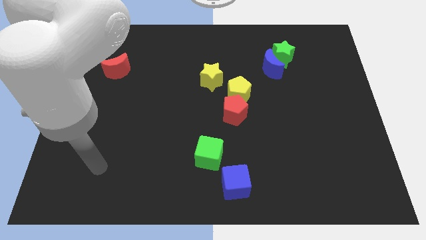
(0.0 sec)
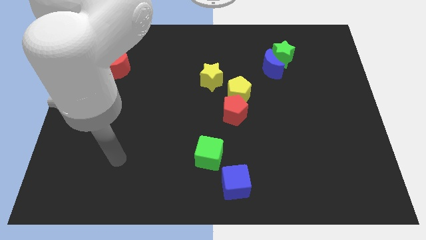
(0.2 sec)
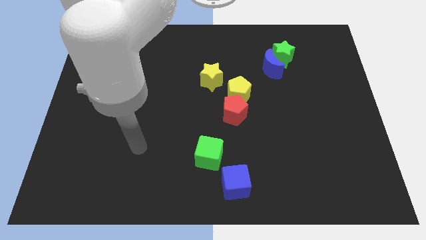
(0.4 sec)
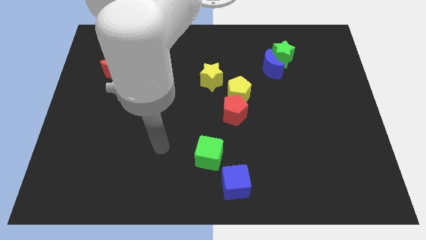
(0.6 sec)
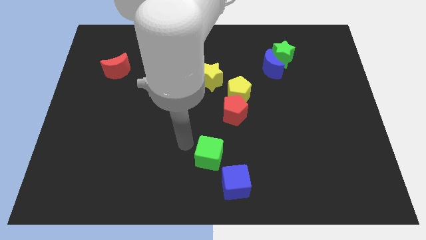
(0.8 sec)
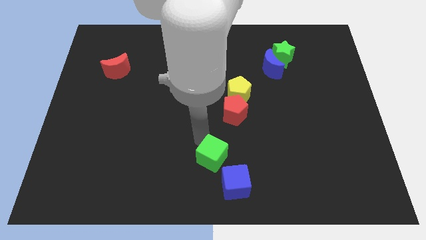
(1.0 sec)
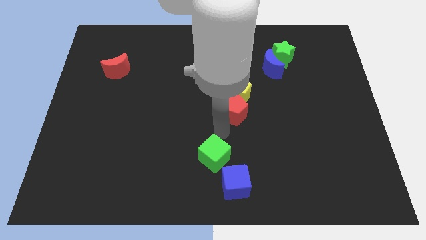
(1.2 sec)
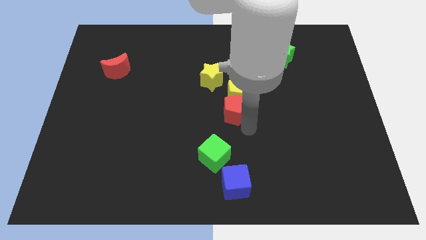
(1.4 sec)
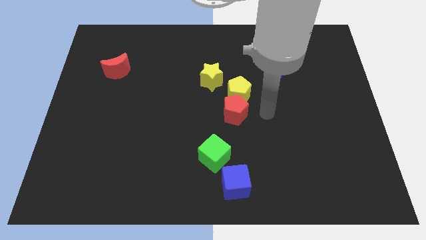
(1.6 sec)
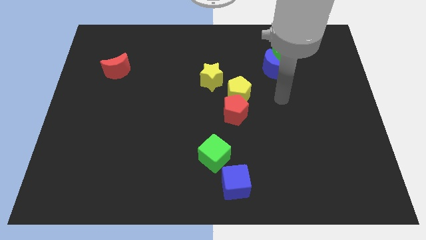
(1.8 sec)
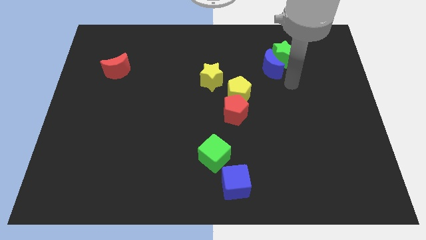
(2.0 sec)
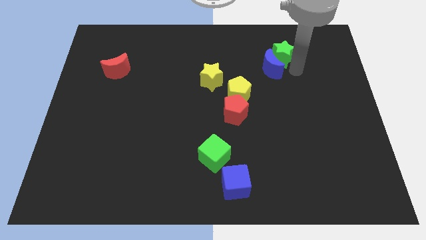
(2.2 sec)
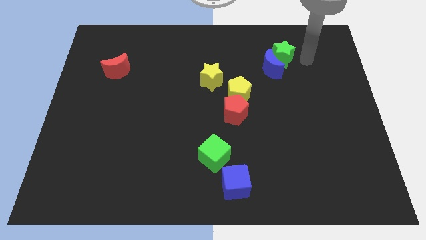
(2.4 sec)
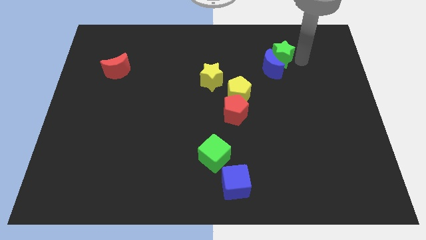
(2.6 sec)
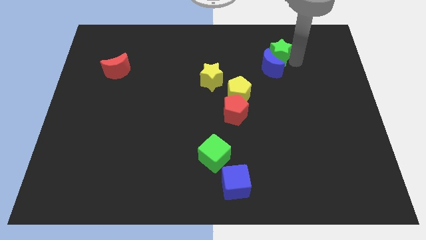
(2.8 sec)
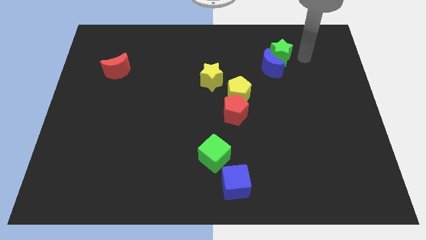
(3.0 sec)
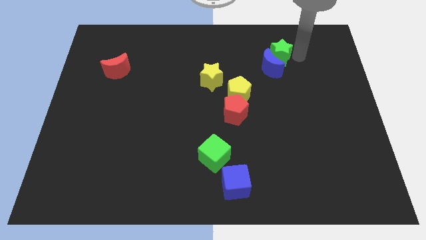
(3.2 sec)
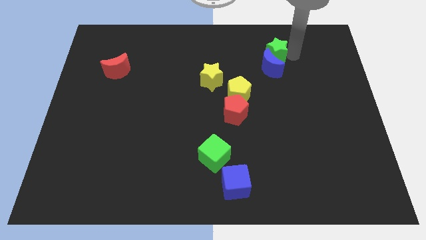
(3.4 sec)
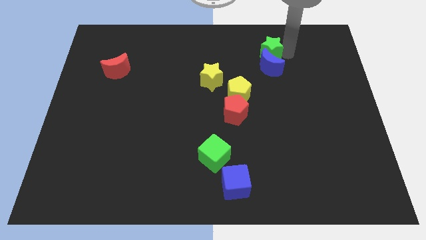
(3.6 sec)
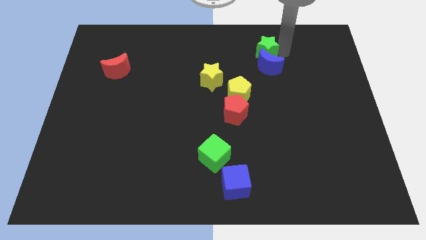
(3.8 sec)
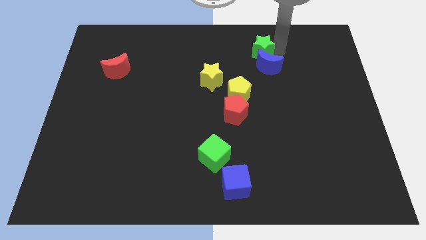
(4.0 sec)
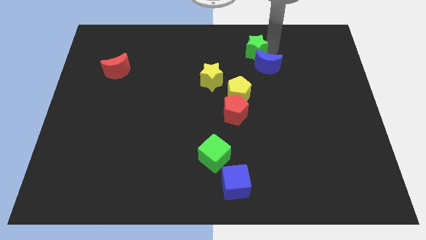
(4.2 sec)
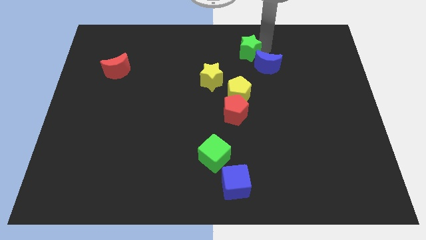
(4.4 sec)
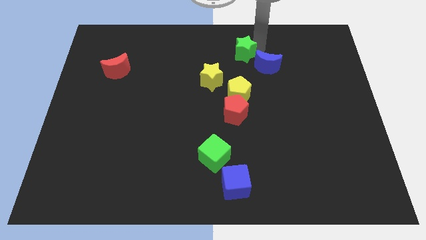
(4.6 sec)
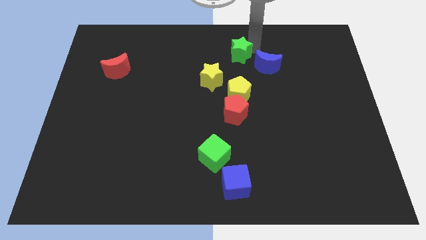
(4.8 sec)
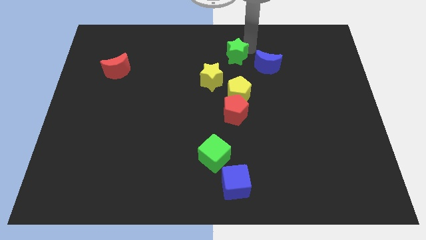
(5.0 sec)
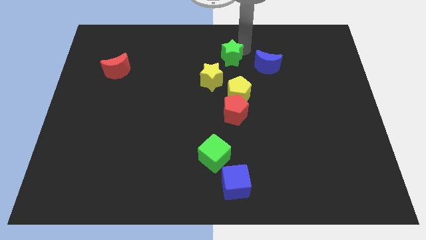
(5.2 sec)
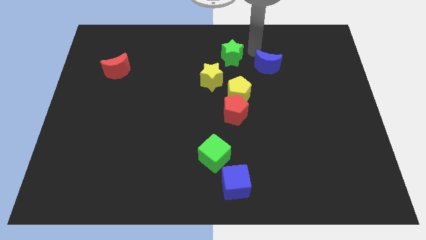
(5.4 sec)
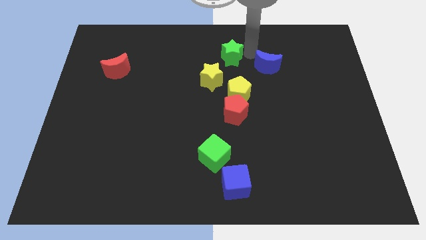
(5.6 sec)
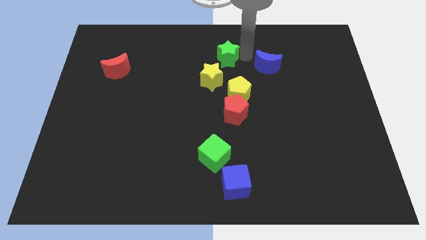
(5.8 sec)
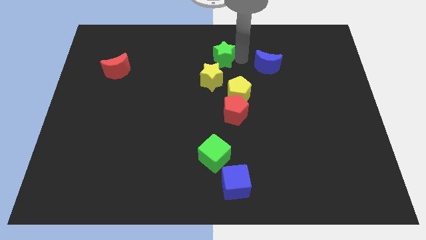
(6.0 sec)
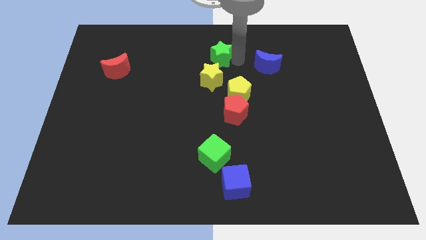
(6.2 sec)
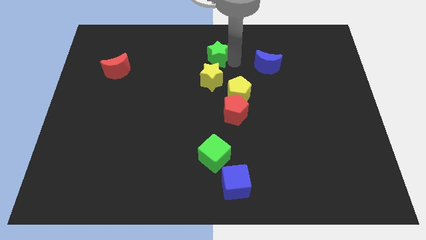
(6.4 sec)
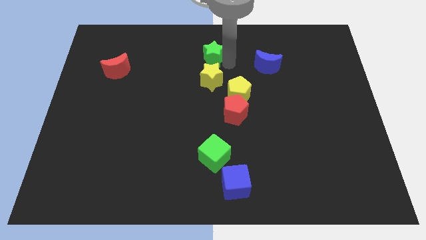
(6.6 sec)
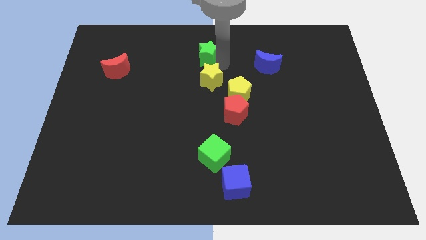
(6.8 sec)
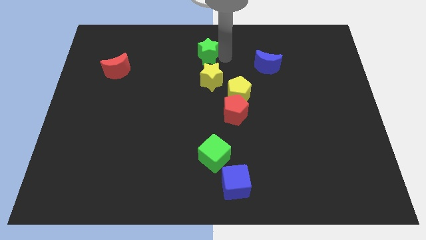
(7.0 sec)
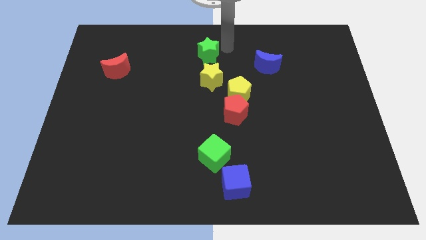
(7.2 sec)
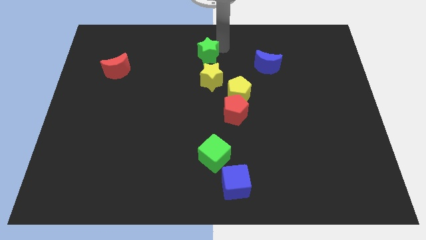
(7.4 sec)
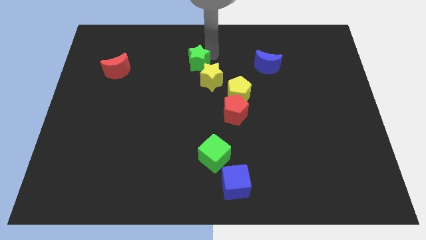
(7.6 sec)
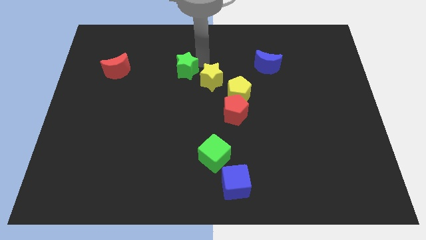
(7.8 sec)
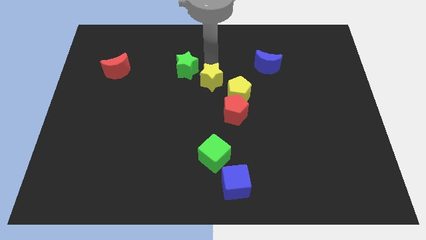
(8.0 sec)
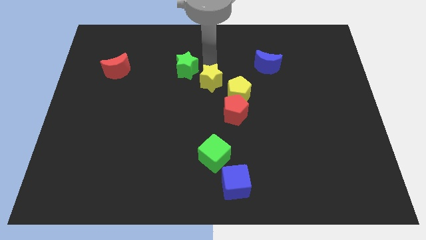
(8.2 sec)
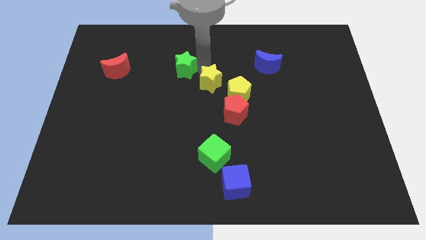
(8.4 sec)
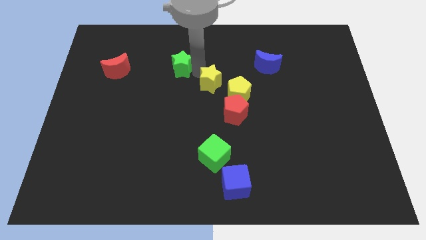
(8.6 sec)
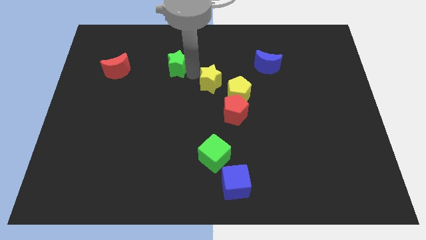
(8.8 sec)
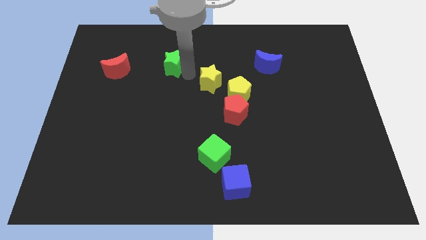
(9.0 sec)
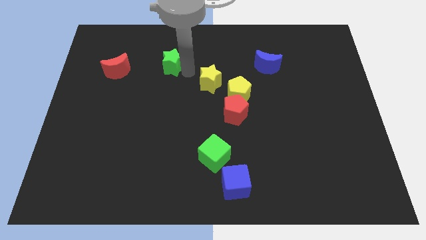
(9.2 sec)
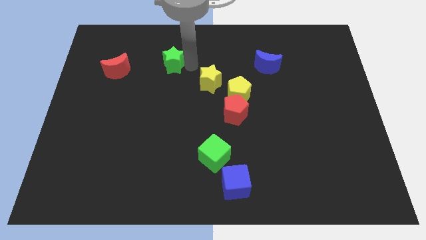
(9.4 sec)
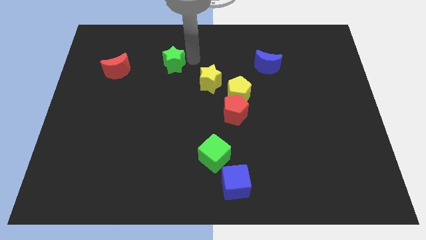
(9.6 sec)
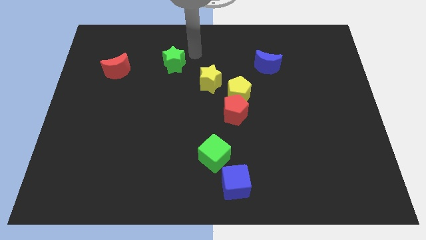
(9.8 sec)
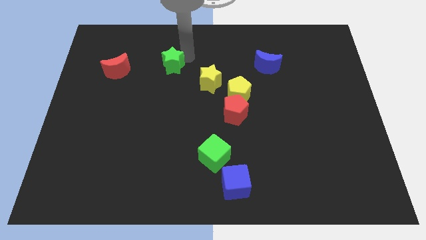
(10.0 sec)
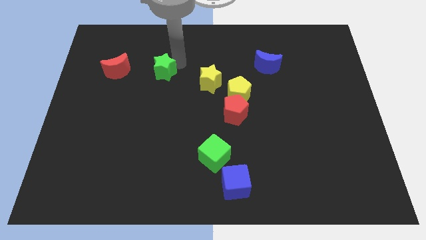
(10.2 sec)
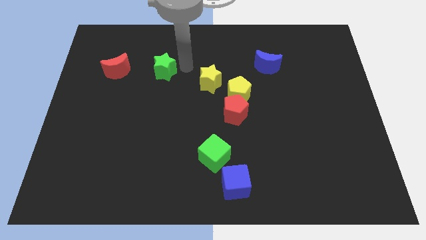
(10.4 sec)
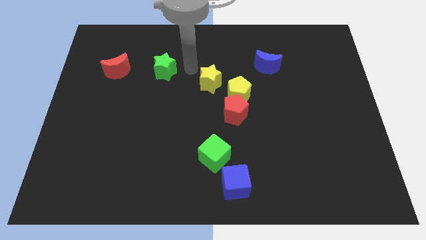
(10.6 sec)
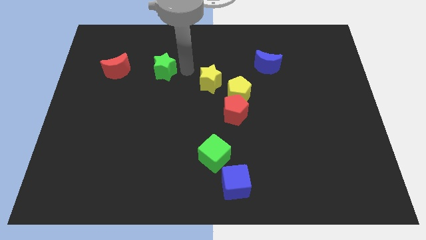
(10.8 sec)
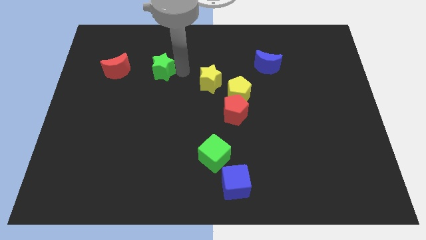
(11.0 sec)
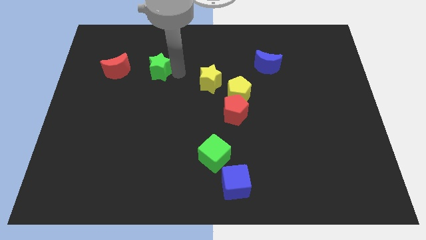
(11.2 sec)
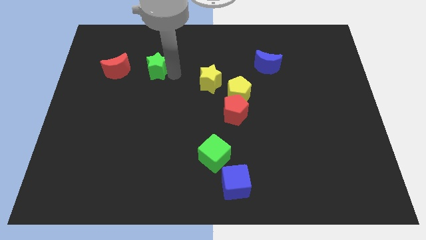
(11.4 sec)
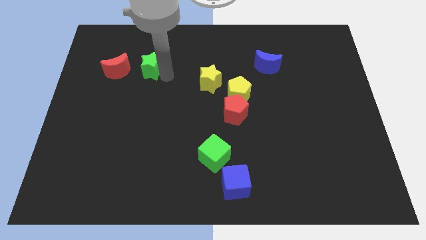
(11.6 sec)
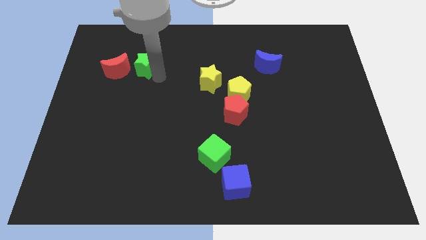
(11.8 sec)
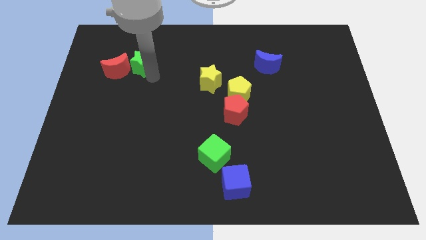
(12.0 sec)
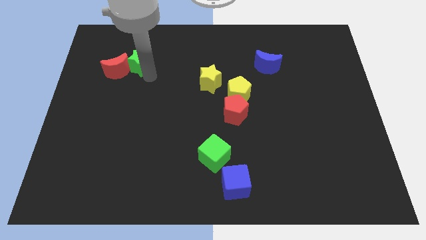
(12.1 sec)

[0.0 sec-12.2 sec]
put the green star close to the red moon

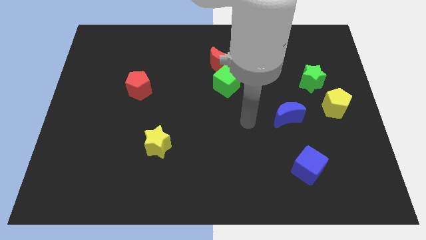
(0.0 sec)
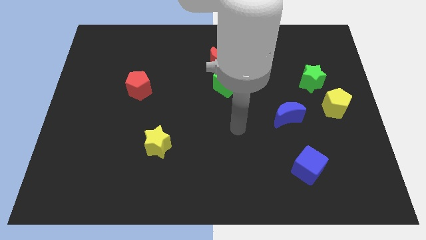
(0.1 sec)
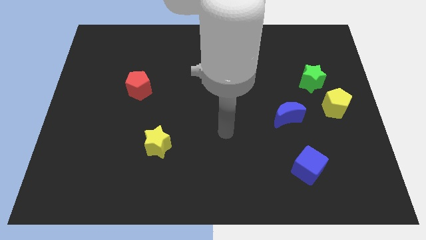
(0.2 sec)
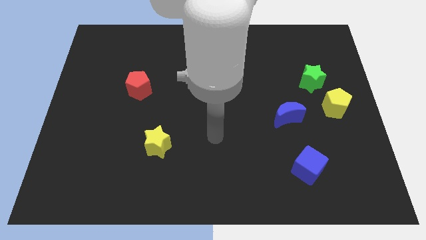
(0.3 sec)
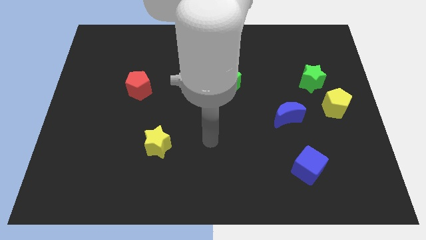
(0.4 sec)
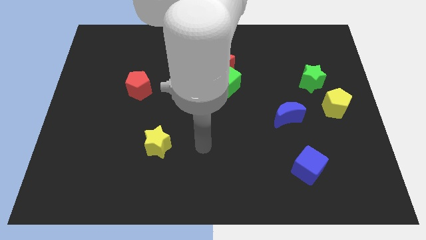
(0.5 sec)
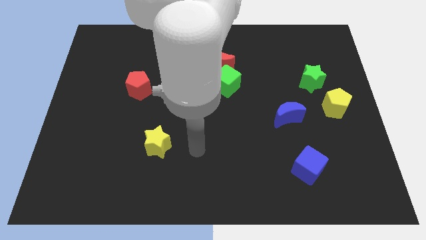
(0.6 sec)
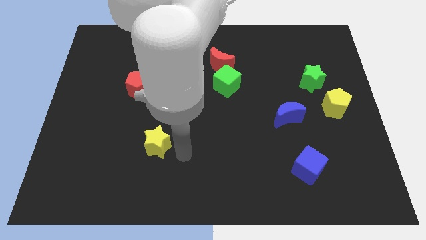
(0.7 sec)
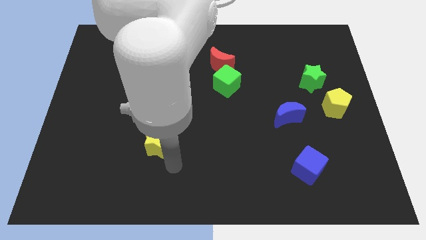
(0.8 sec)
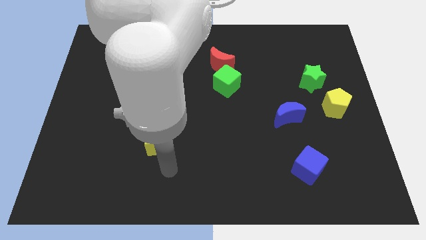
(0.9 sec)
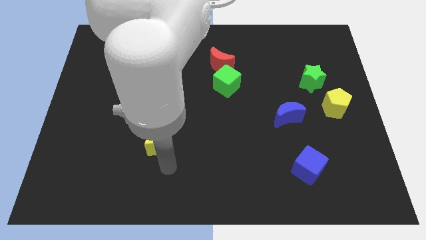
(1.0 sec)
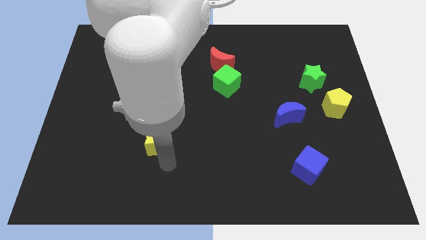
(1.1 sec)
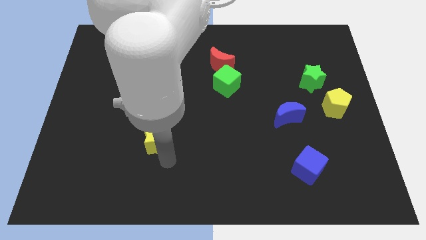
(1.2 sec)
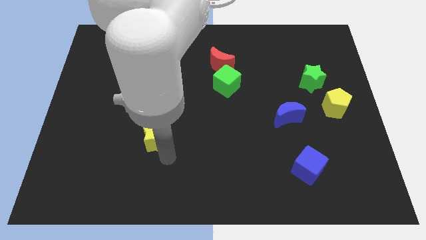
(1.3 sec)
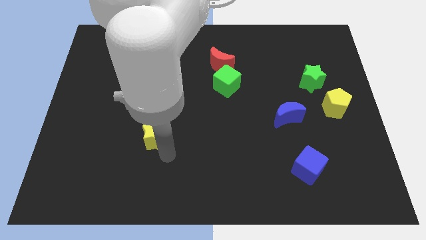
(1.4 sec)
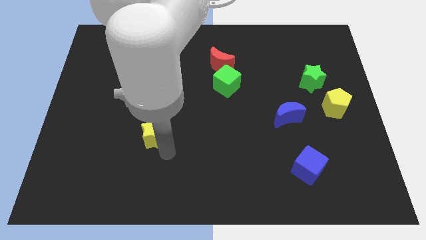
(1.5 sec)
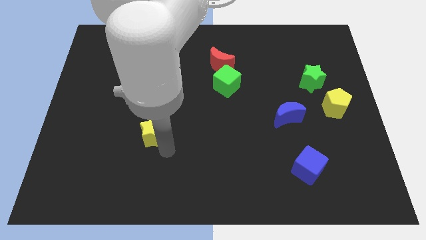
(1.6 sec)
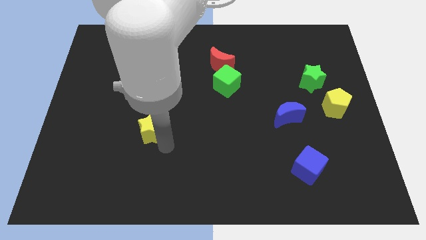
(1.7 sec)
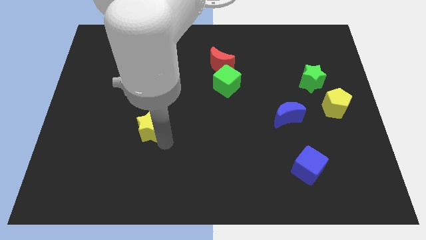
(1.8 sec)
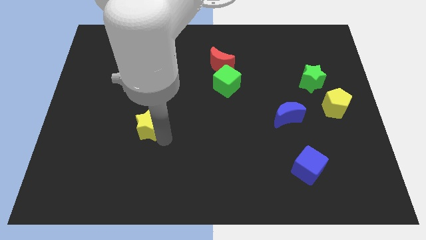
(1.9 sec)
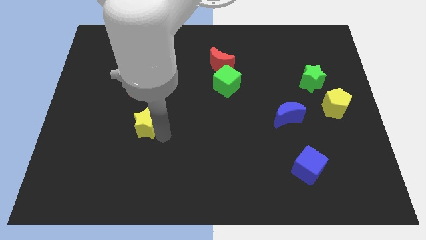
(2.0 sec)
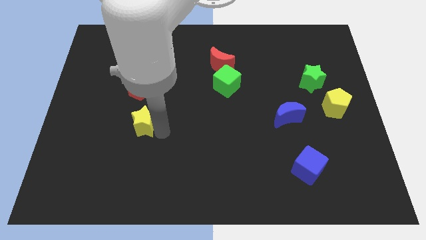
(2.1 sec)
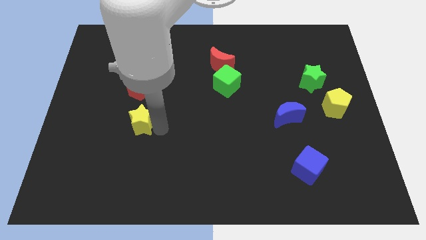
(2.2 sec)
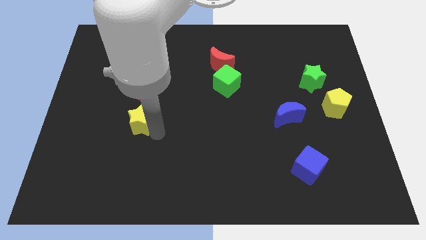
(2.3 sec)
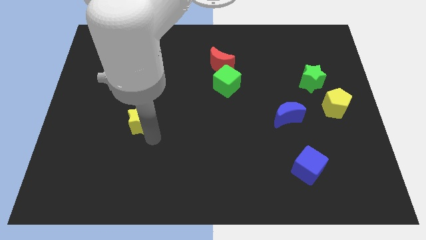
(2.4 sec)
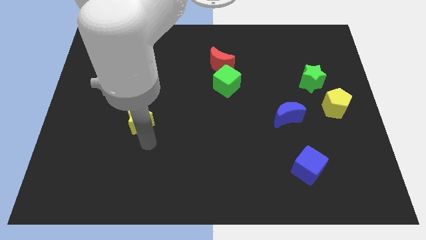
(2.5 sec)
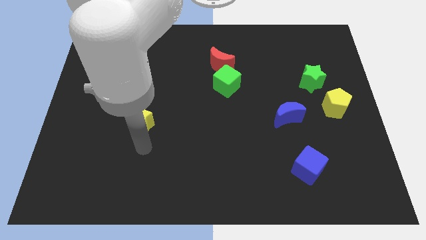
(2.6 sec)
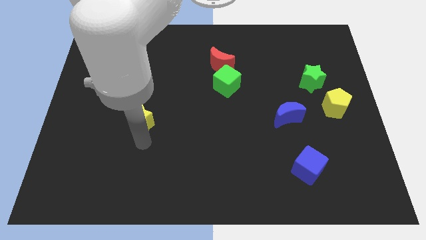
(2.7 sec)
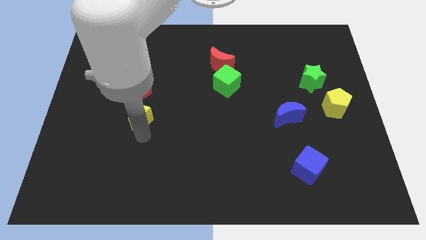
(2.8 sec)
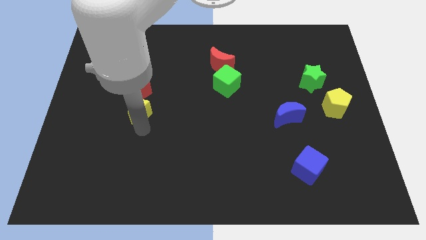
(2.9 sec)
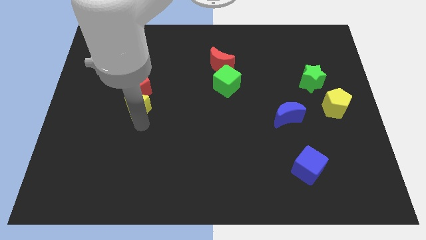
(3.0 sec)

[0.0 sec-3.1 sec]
push the yellow star close to the red pentagon
